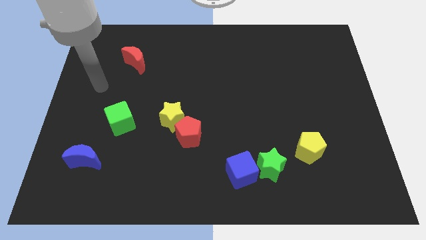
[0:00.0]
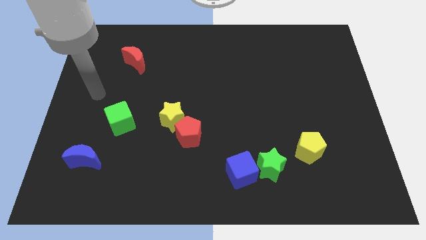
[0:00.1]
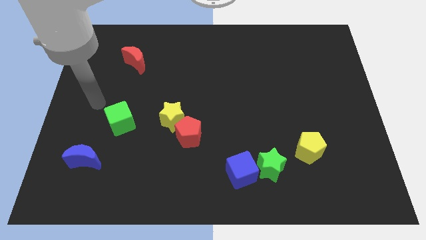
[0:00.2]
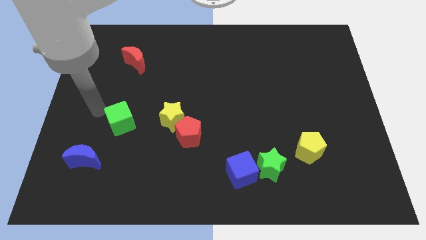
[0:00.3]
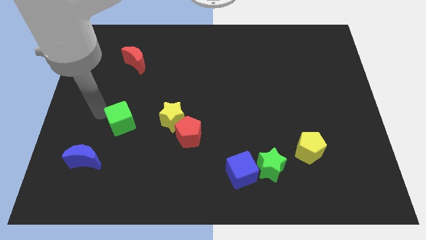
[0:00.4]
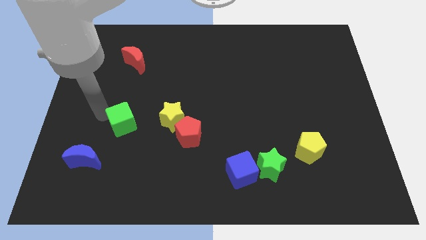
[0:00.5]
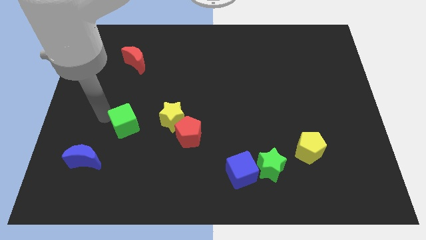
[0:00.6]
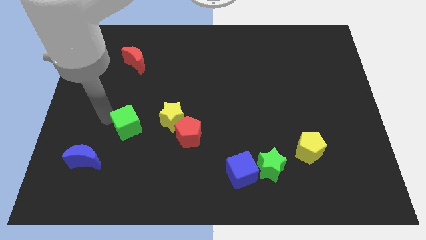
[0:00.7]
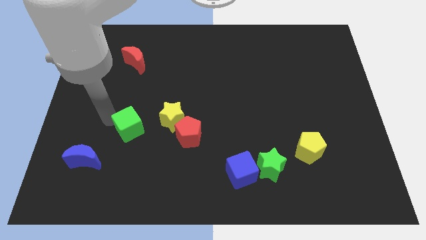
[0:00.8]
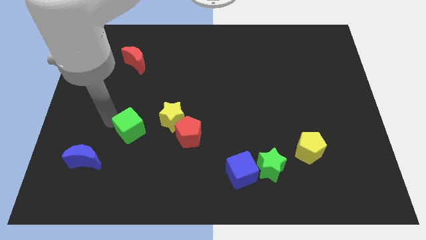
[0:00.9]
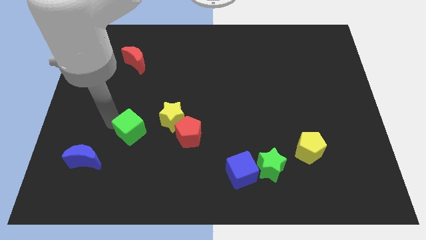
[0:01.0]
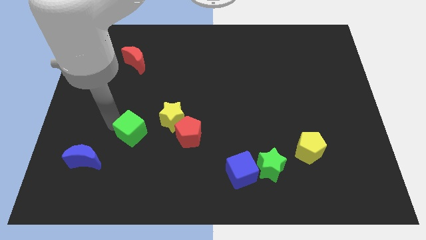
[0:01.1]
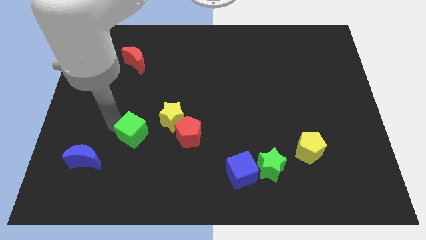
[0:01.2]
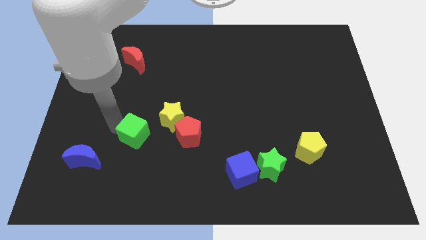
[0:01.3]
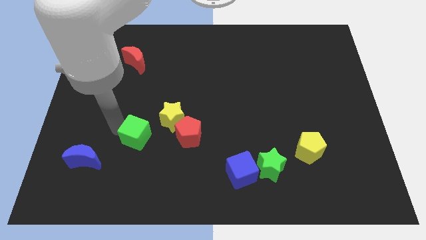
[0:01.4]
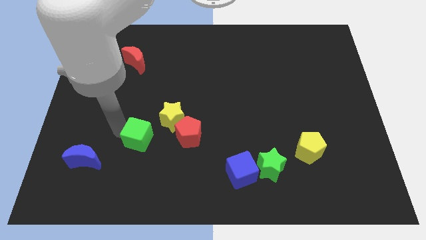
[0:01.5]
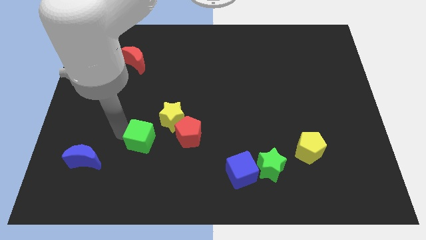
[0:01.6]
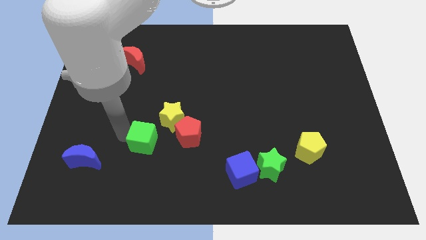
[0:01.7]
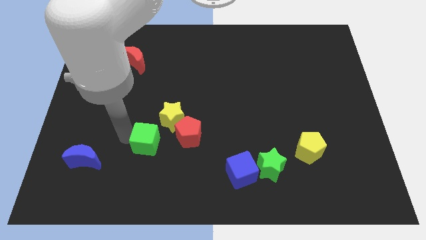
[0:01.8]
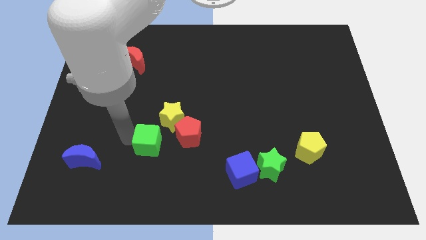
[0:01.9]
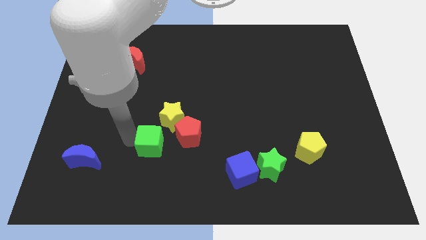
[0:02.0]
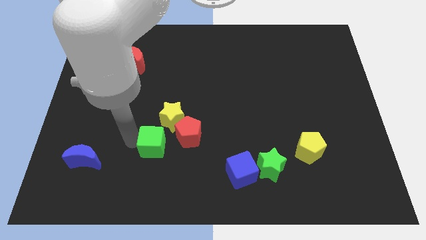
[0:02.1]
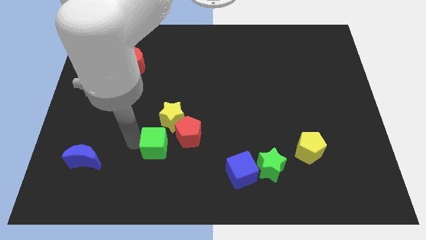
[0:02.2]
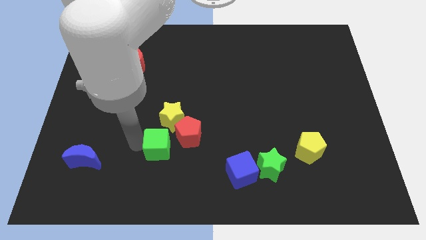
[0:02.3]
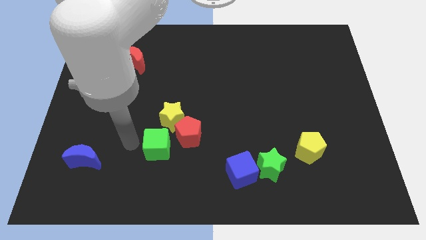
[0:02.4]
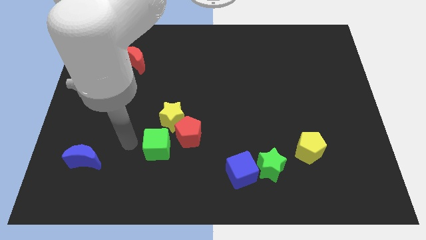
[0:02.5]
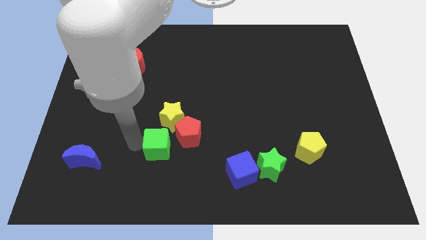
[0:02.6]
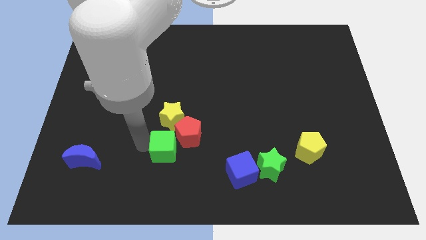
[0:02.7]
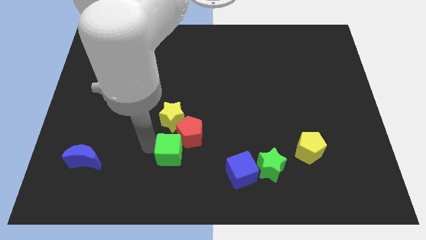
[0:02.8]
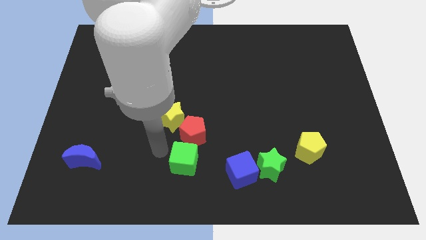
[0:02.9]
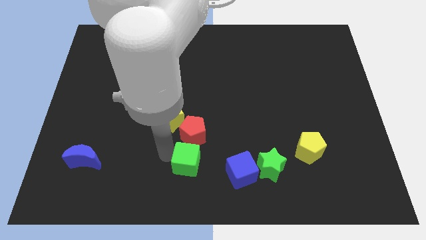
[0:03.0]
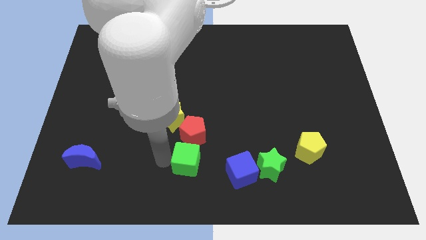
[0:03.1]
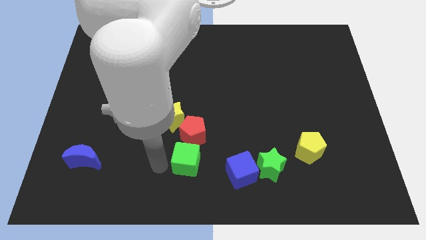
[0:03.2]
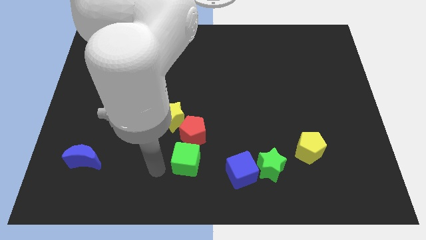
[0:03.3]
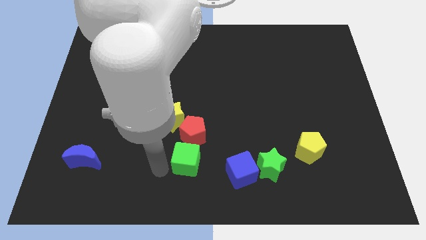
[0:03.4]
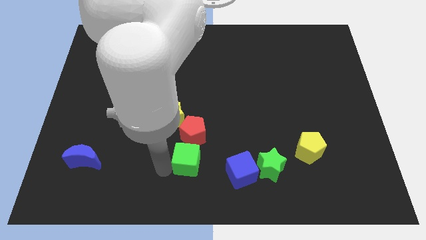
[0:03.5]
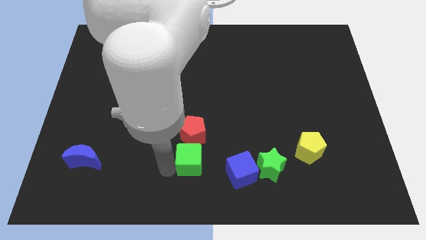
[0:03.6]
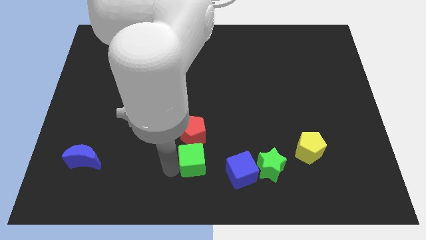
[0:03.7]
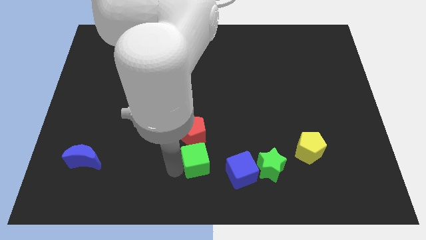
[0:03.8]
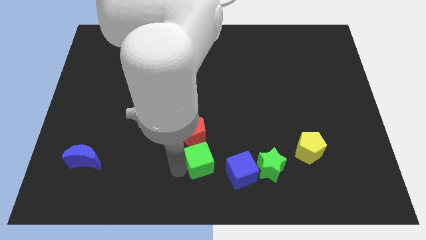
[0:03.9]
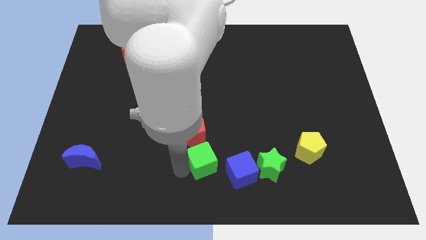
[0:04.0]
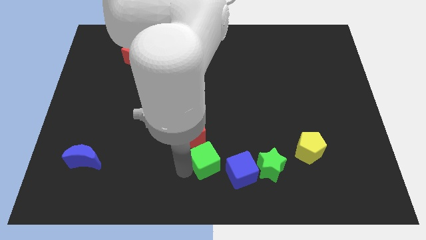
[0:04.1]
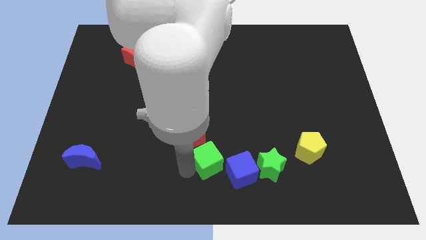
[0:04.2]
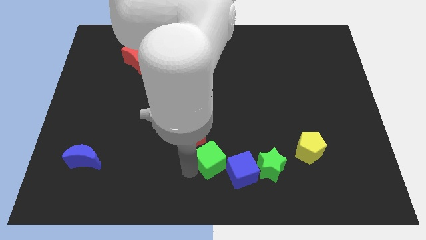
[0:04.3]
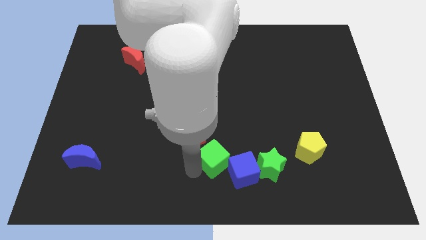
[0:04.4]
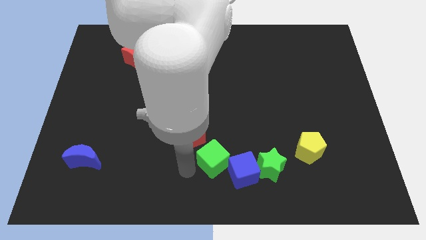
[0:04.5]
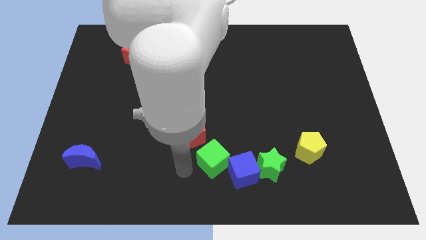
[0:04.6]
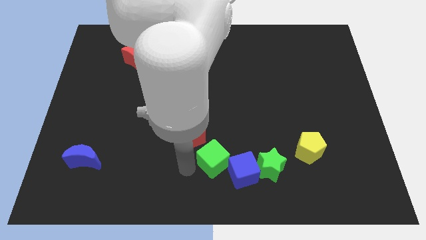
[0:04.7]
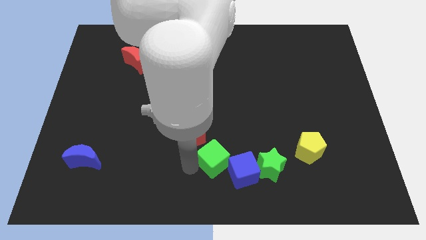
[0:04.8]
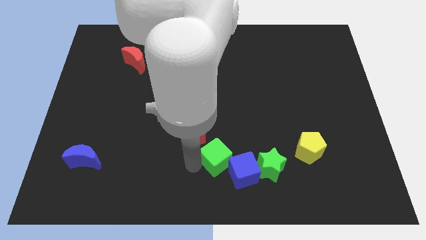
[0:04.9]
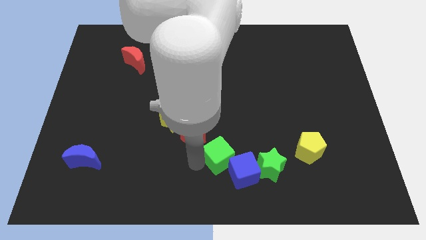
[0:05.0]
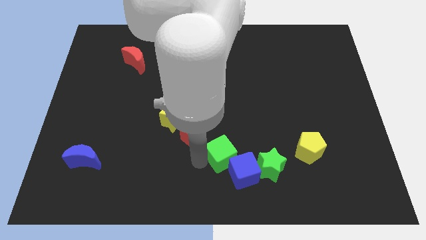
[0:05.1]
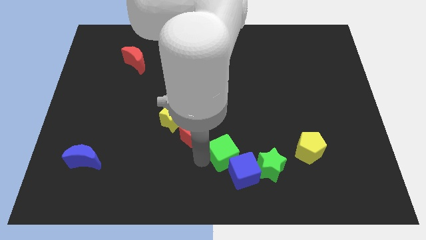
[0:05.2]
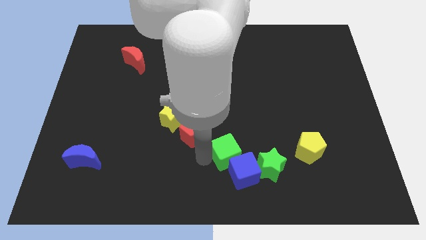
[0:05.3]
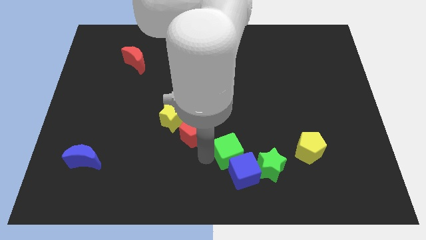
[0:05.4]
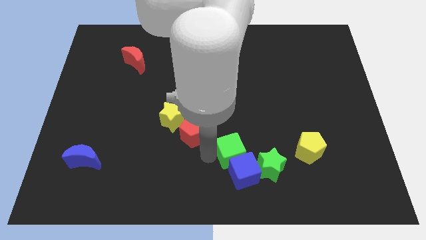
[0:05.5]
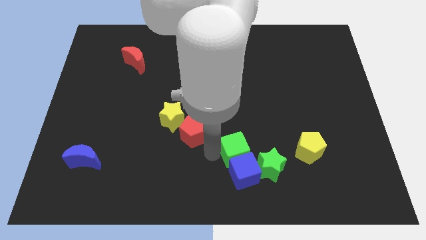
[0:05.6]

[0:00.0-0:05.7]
push the green cube diagonally up and to the right of the blue cube
